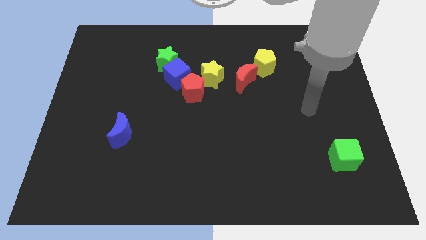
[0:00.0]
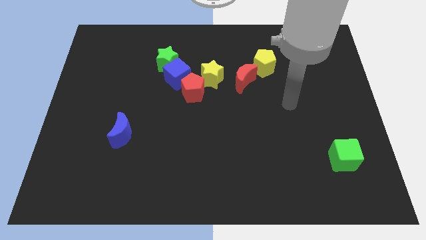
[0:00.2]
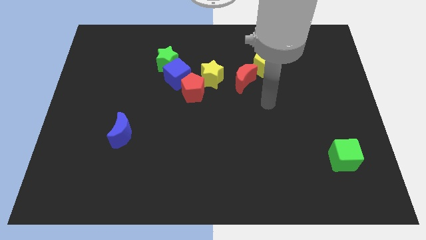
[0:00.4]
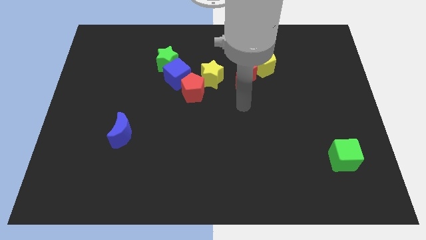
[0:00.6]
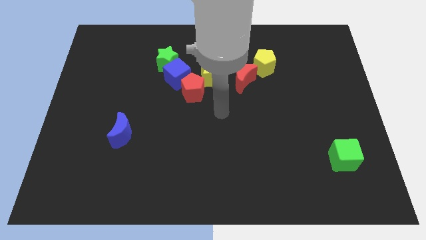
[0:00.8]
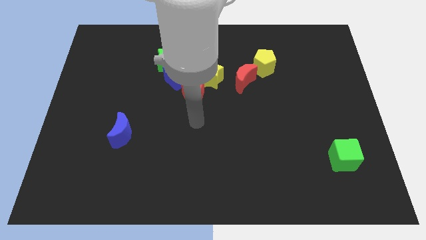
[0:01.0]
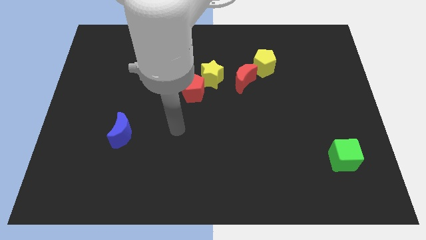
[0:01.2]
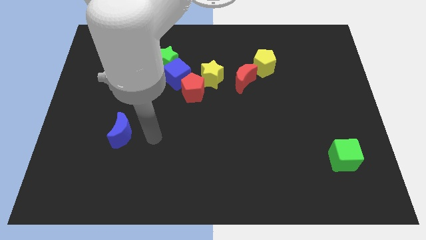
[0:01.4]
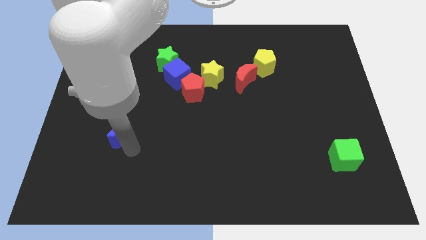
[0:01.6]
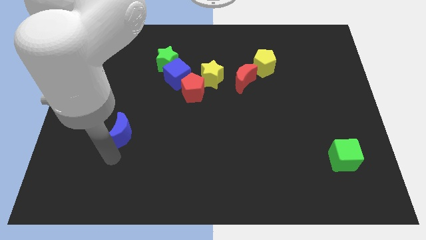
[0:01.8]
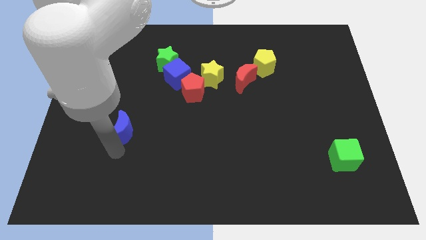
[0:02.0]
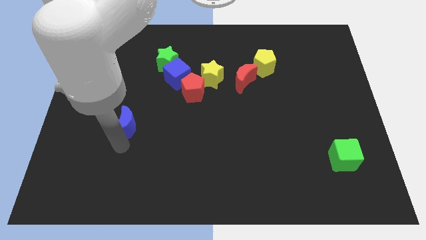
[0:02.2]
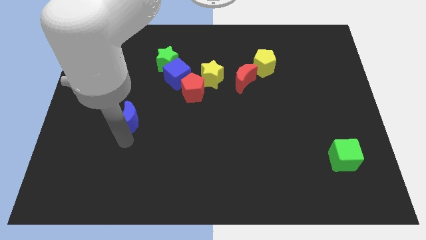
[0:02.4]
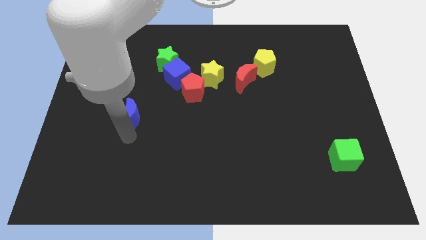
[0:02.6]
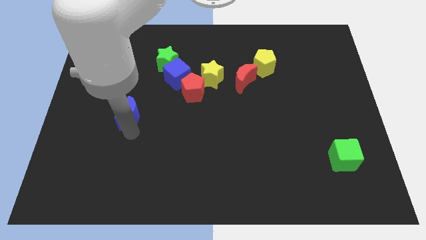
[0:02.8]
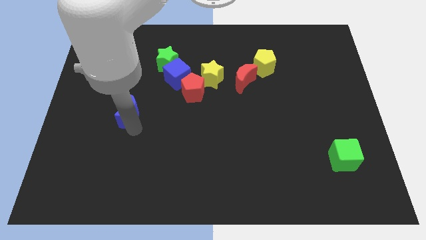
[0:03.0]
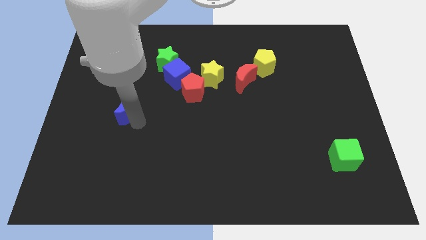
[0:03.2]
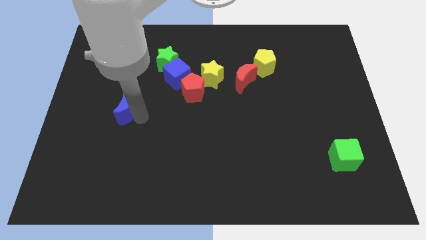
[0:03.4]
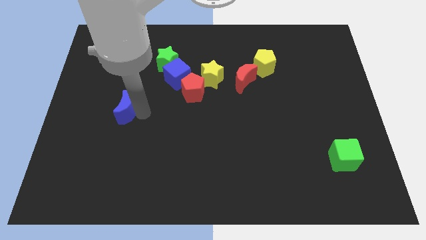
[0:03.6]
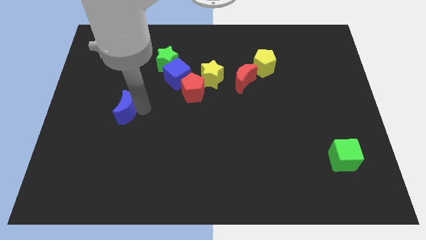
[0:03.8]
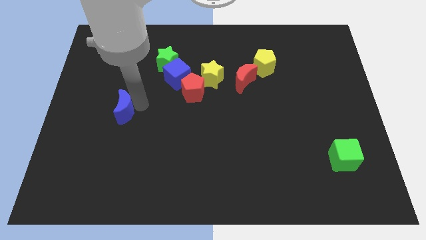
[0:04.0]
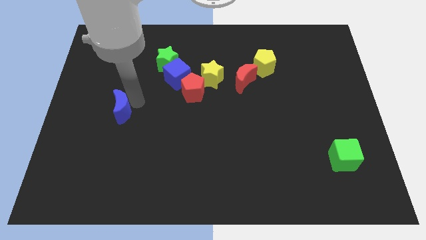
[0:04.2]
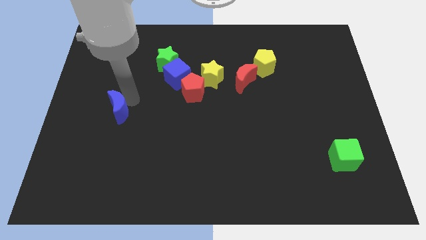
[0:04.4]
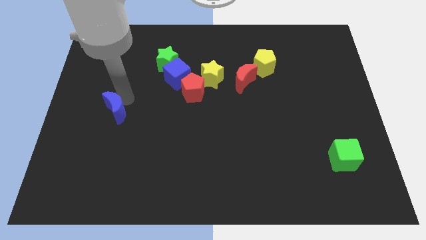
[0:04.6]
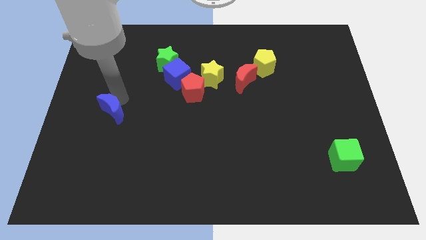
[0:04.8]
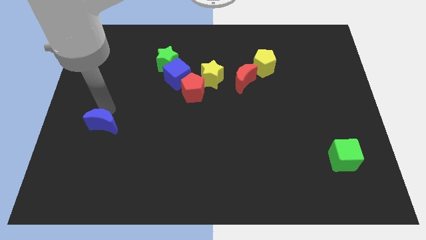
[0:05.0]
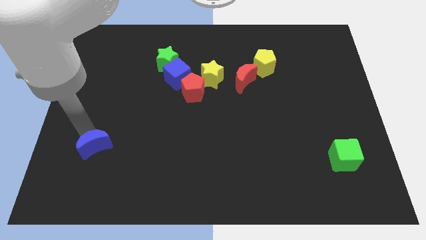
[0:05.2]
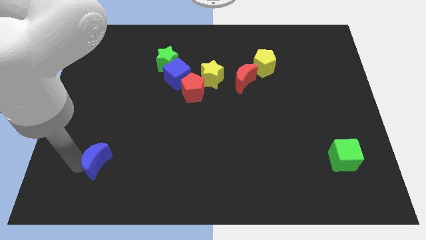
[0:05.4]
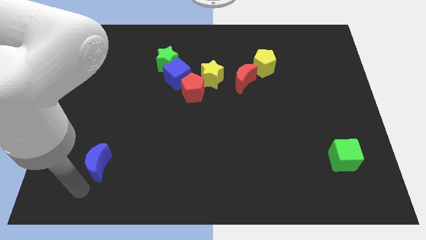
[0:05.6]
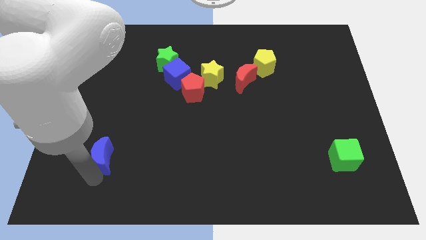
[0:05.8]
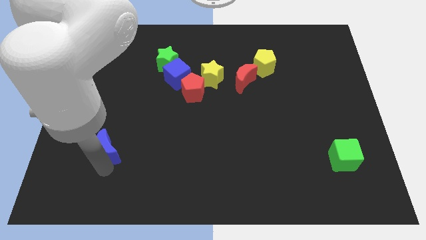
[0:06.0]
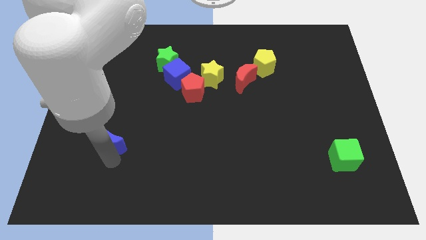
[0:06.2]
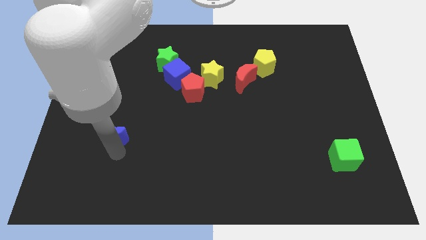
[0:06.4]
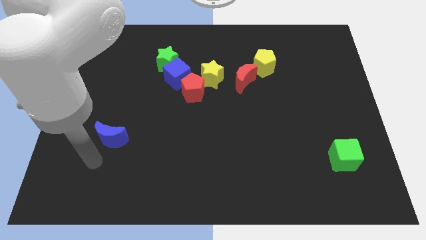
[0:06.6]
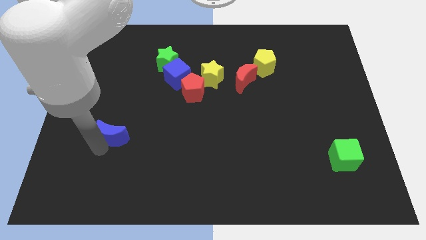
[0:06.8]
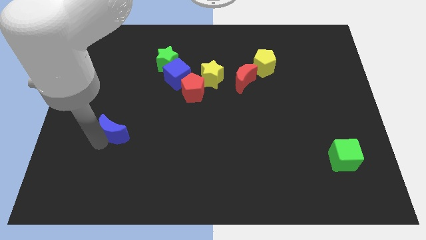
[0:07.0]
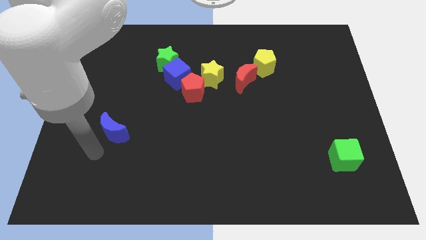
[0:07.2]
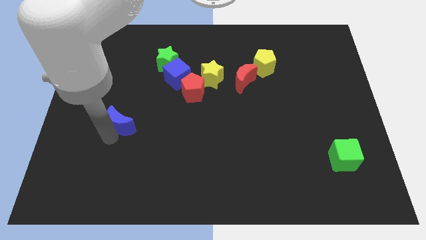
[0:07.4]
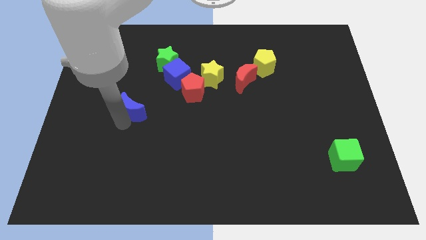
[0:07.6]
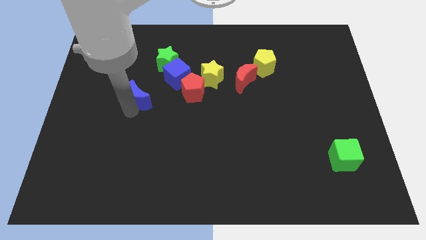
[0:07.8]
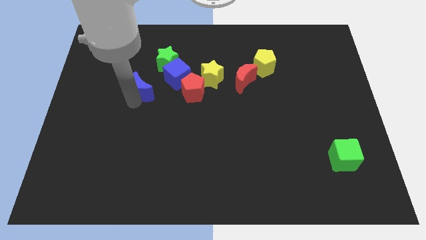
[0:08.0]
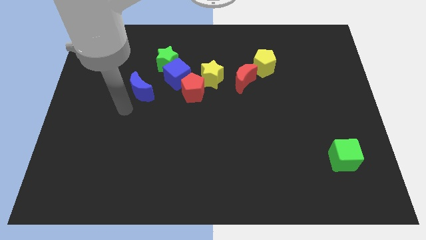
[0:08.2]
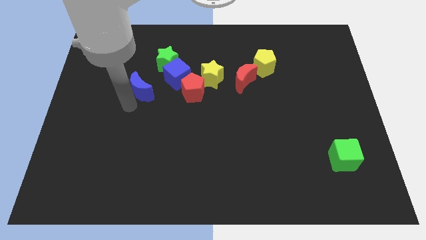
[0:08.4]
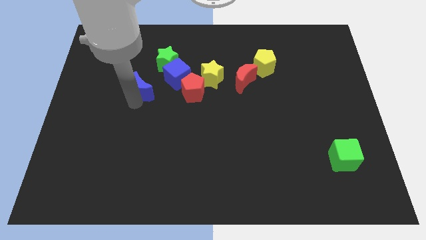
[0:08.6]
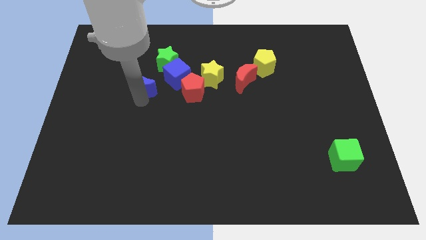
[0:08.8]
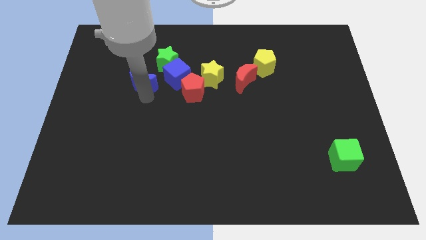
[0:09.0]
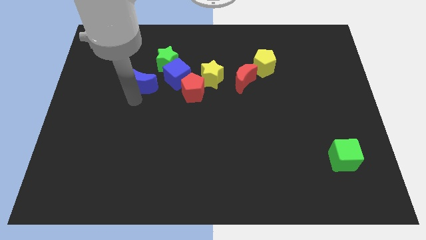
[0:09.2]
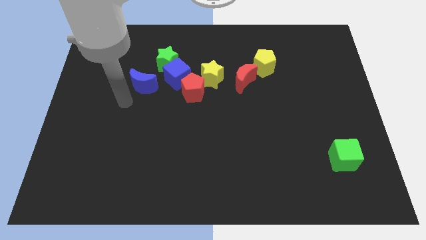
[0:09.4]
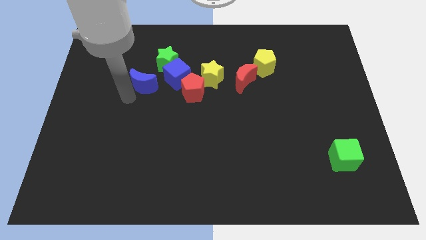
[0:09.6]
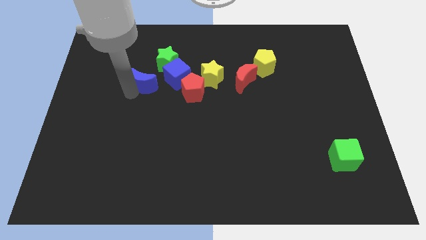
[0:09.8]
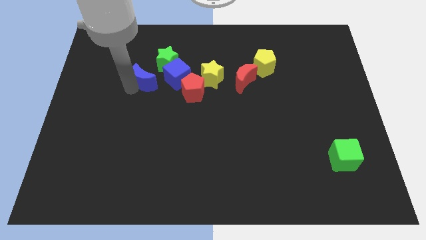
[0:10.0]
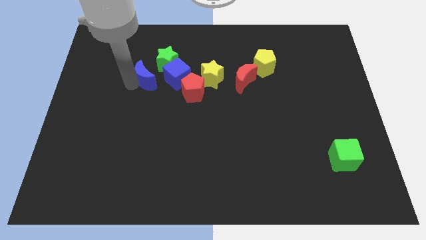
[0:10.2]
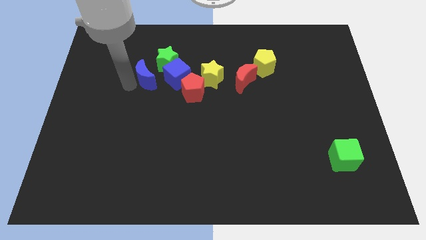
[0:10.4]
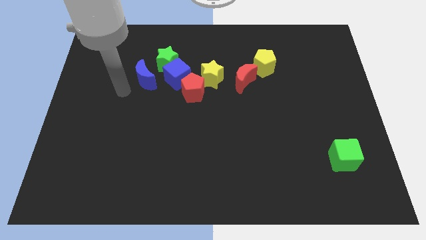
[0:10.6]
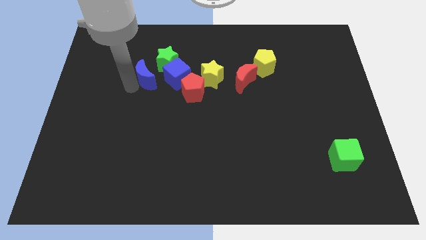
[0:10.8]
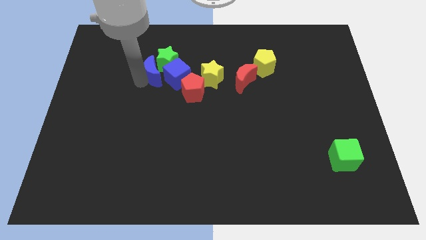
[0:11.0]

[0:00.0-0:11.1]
push the blue moon towards the green star

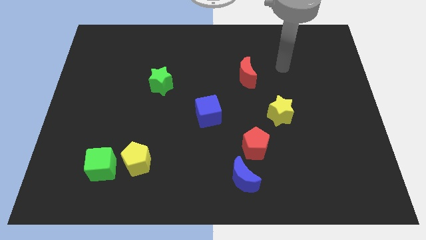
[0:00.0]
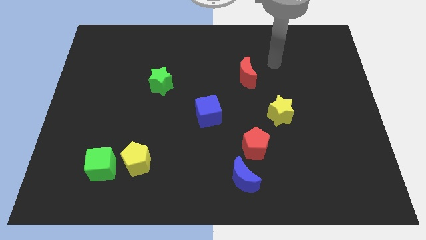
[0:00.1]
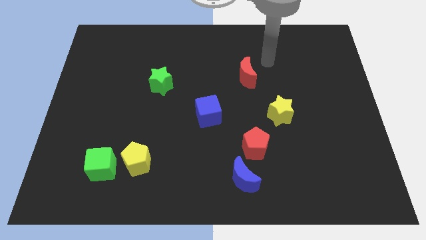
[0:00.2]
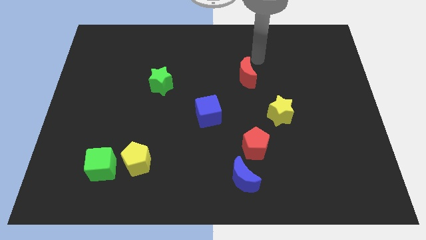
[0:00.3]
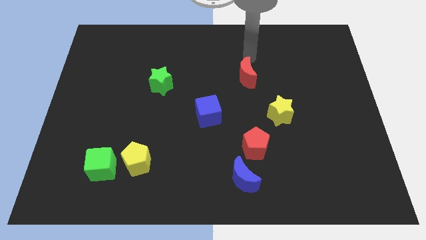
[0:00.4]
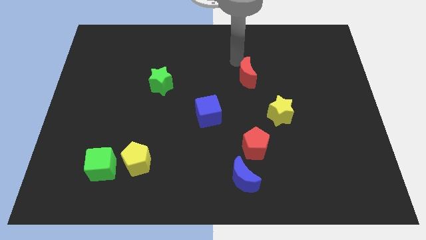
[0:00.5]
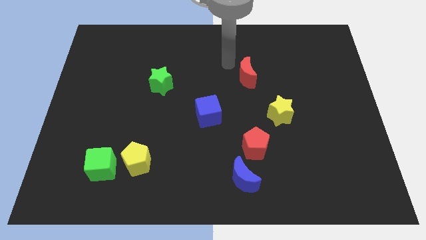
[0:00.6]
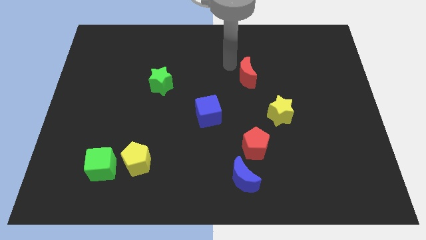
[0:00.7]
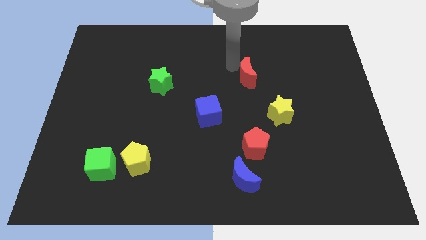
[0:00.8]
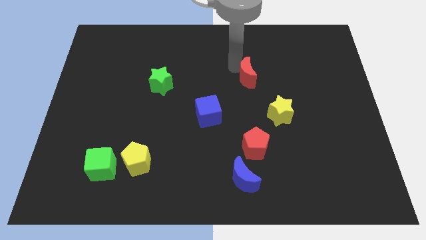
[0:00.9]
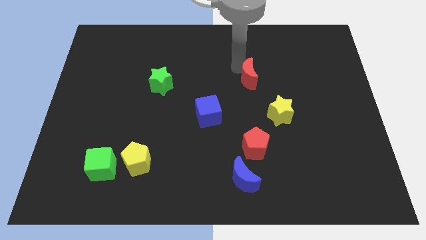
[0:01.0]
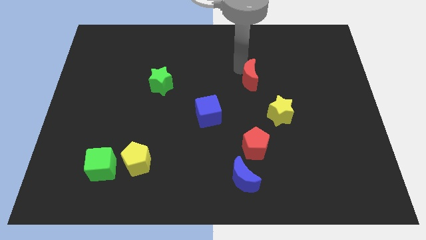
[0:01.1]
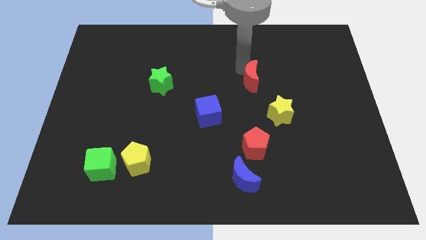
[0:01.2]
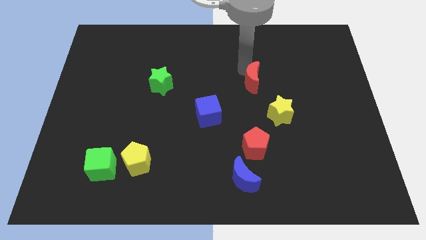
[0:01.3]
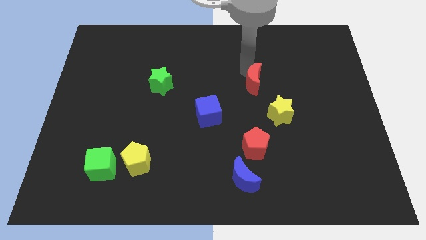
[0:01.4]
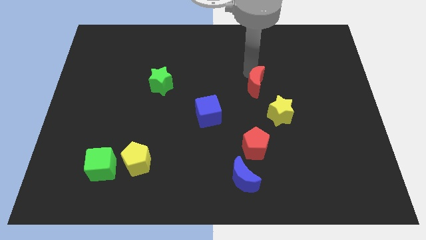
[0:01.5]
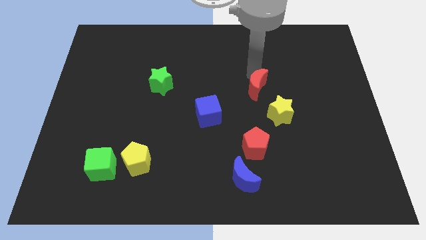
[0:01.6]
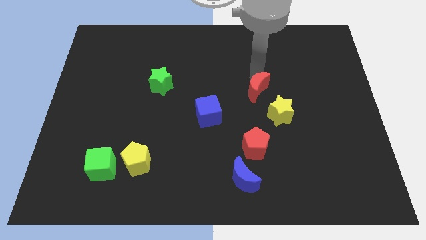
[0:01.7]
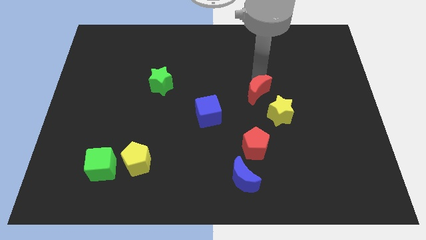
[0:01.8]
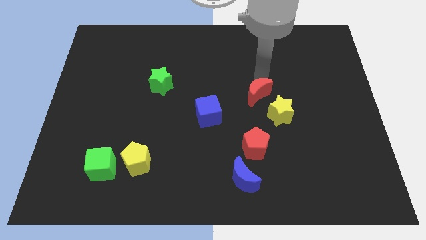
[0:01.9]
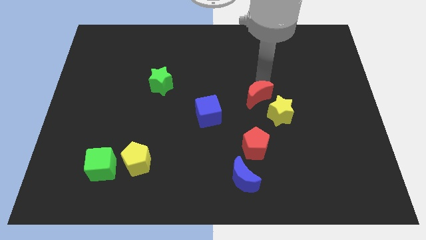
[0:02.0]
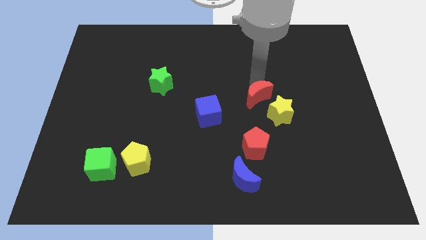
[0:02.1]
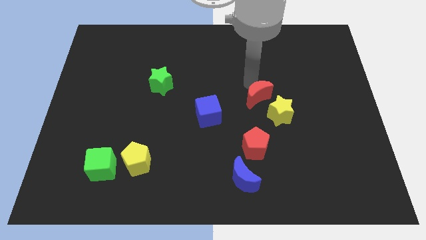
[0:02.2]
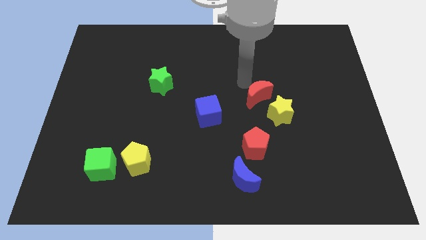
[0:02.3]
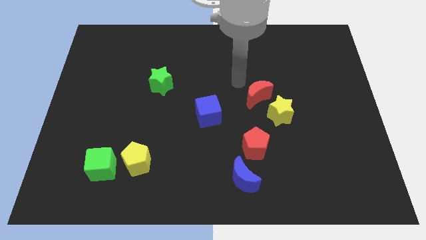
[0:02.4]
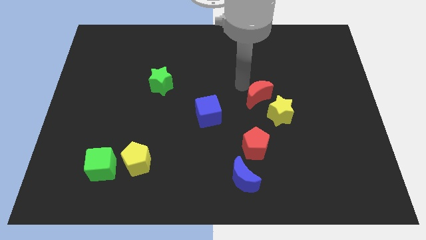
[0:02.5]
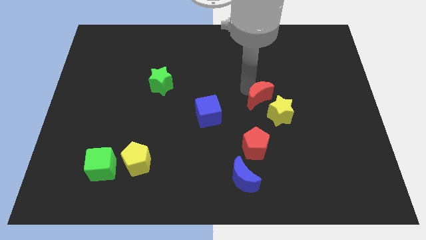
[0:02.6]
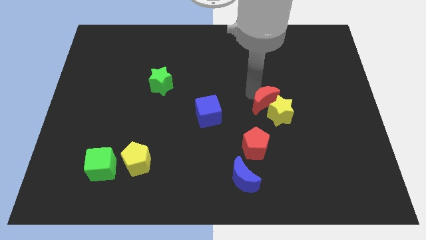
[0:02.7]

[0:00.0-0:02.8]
push the red moon next to the yellow star
